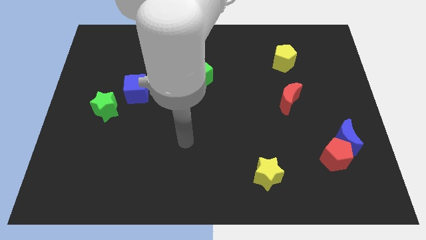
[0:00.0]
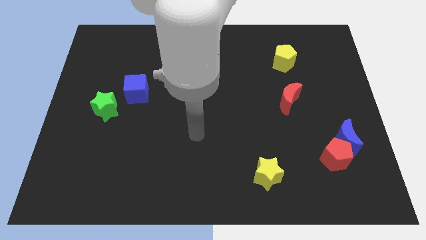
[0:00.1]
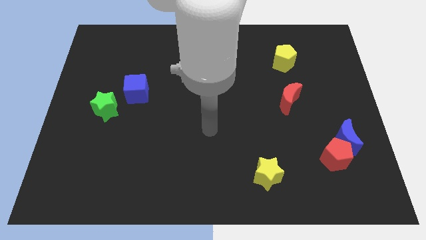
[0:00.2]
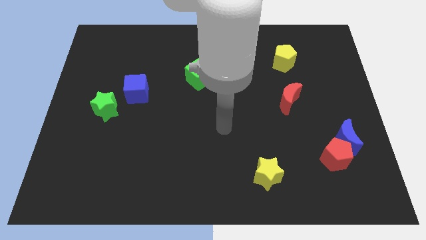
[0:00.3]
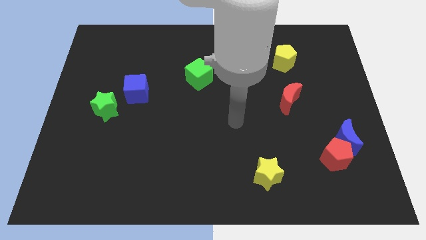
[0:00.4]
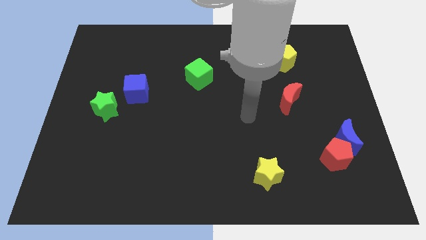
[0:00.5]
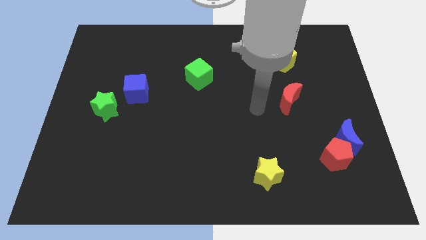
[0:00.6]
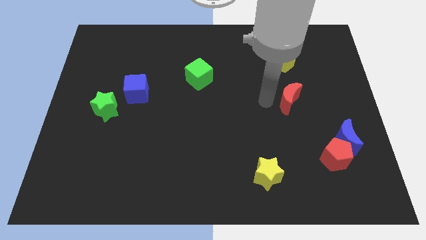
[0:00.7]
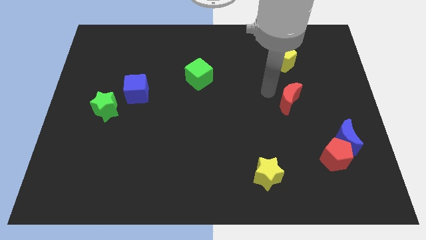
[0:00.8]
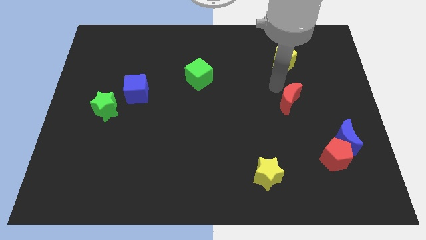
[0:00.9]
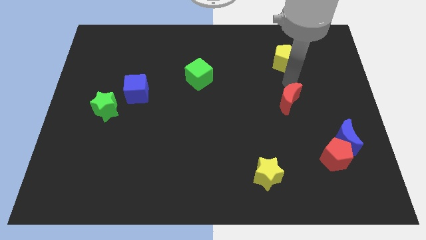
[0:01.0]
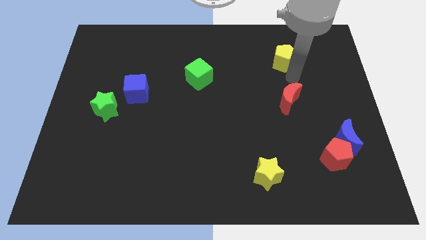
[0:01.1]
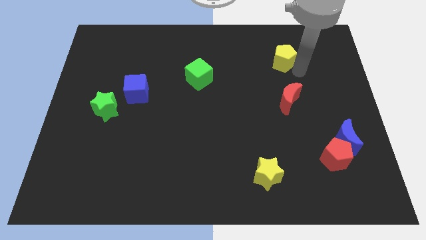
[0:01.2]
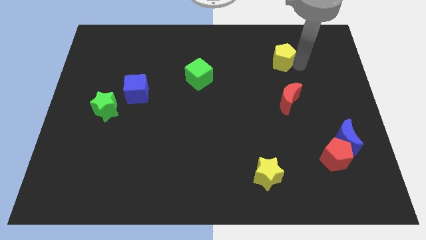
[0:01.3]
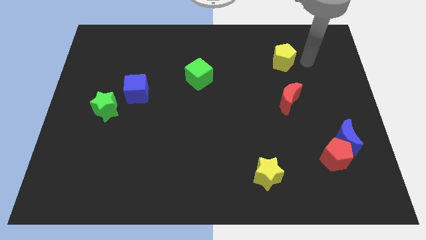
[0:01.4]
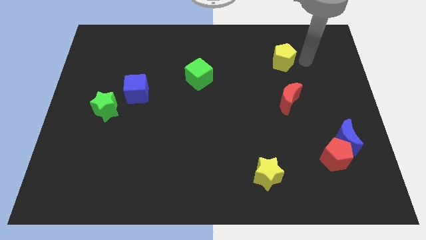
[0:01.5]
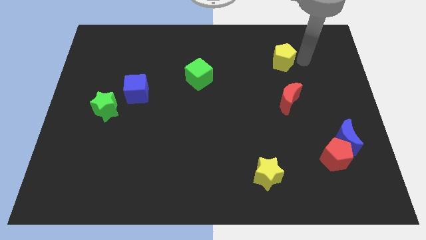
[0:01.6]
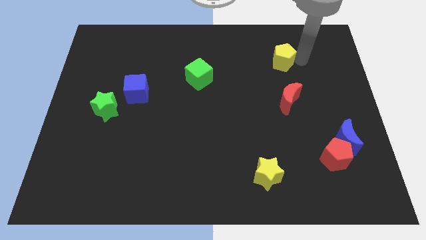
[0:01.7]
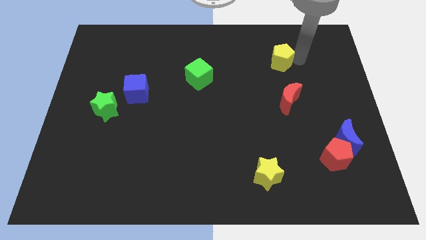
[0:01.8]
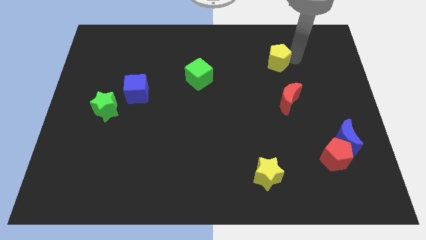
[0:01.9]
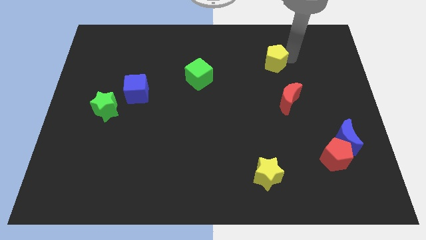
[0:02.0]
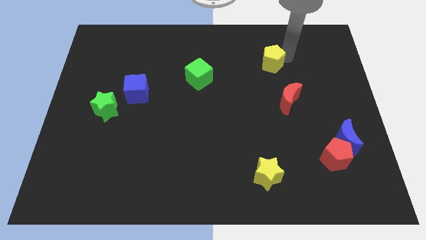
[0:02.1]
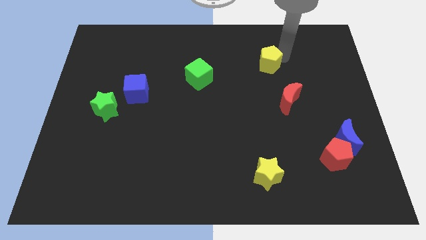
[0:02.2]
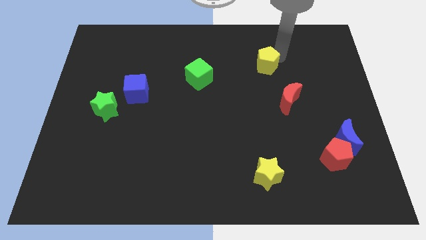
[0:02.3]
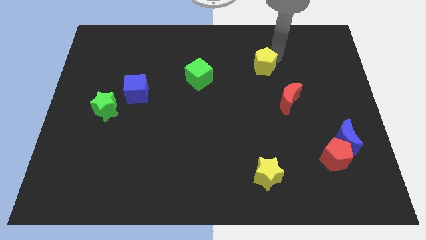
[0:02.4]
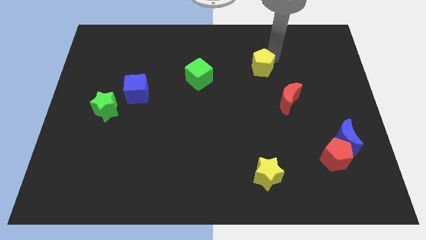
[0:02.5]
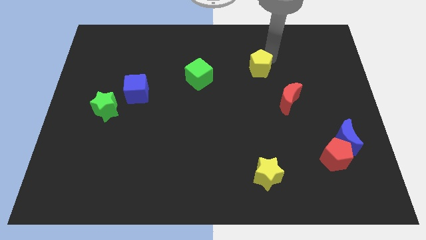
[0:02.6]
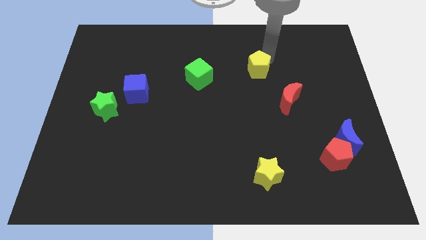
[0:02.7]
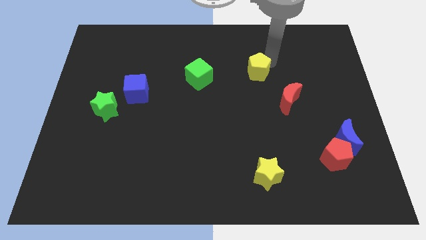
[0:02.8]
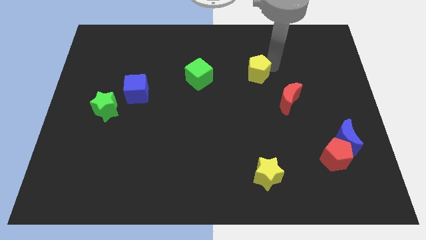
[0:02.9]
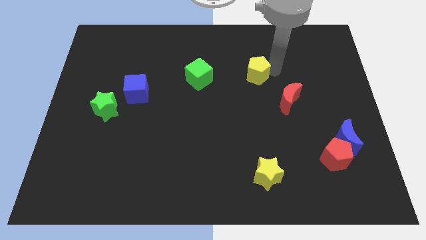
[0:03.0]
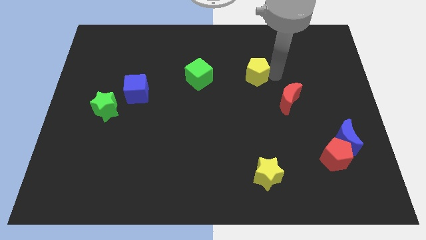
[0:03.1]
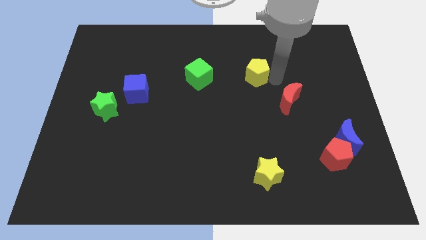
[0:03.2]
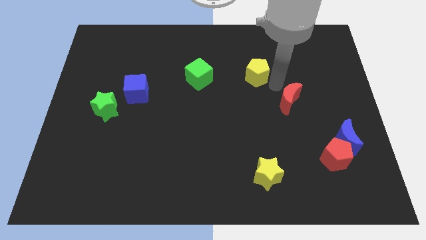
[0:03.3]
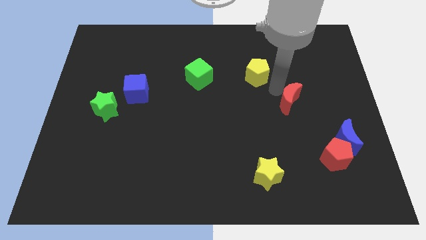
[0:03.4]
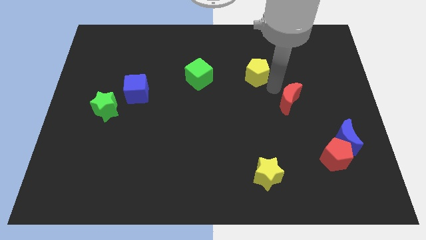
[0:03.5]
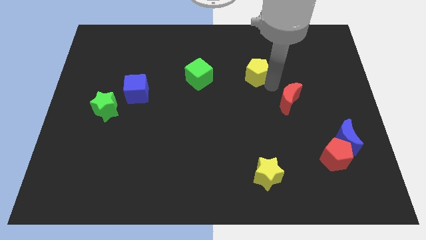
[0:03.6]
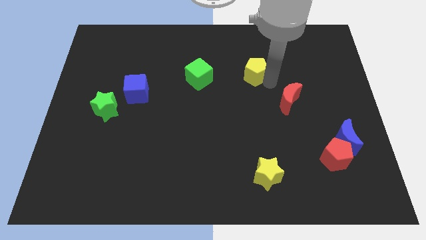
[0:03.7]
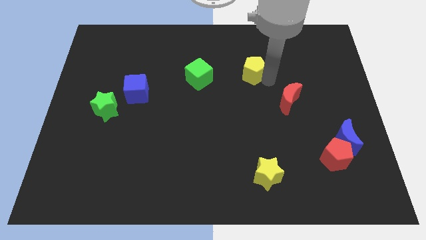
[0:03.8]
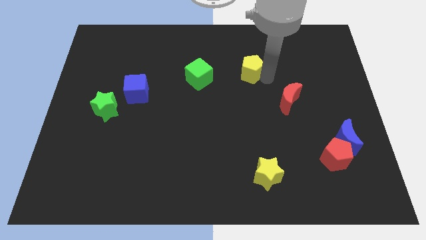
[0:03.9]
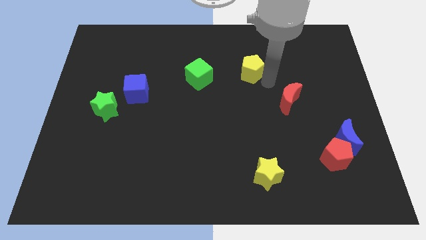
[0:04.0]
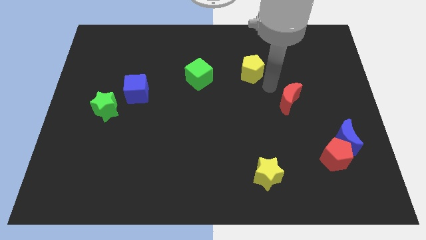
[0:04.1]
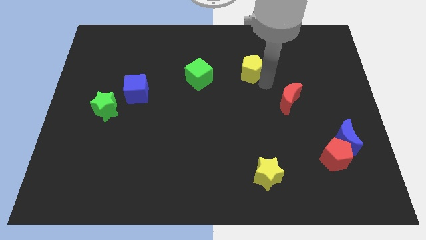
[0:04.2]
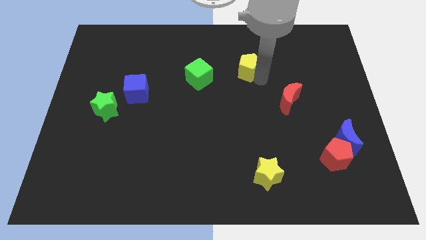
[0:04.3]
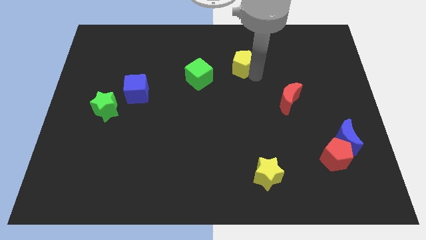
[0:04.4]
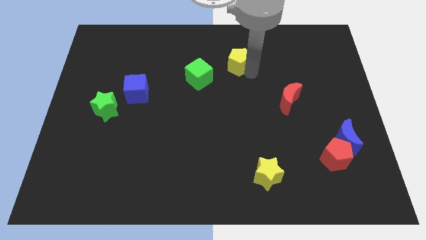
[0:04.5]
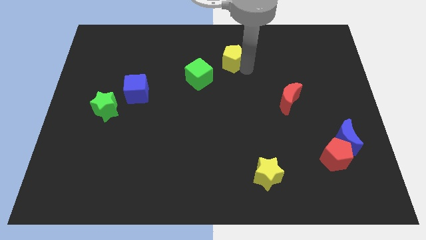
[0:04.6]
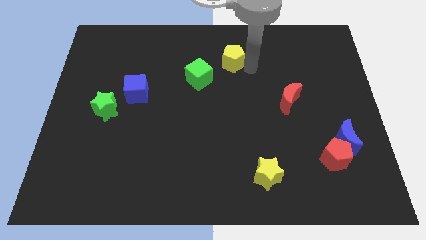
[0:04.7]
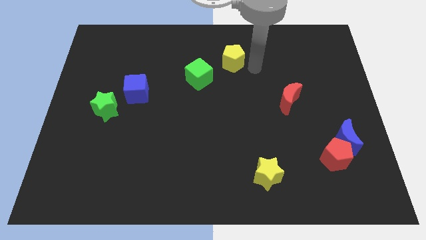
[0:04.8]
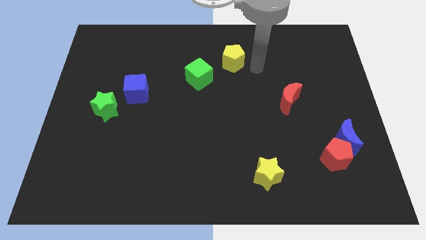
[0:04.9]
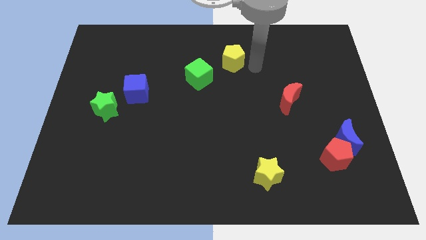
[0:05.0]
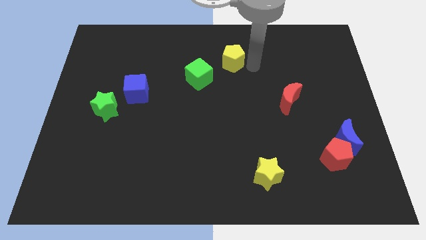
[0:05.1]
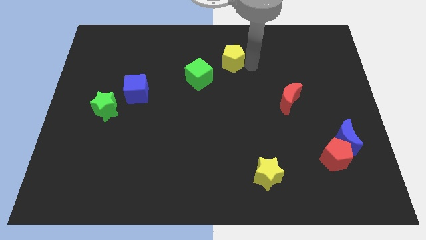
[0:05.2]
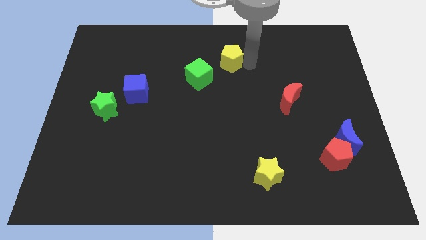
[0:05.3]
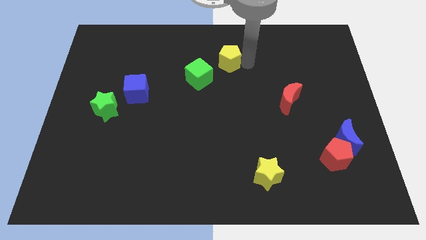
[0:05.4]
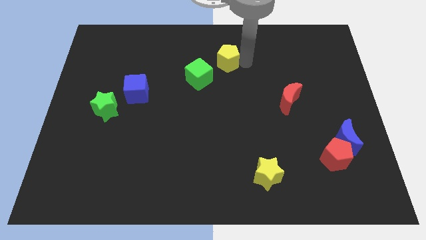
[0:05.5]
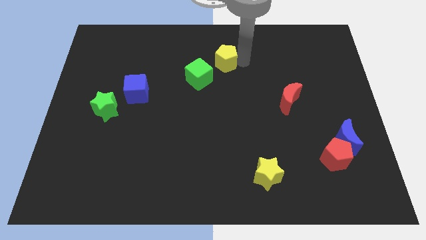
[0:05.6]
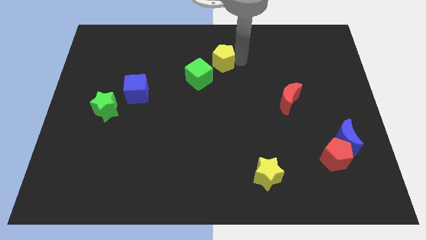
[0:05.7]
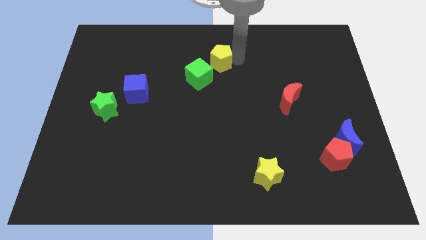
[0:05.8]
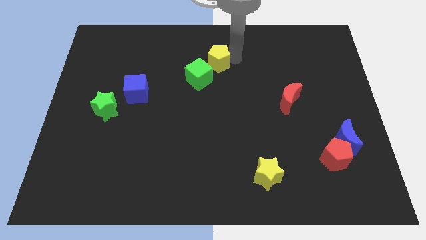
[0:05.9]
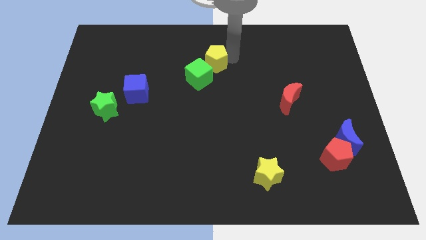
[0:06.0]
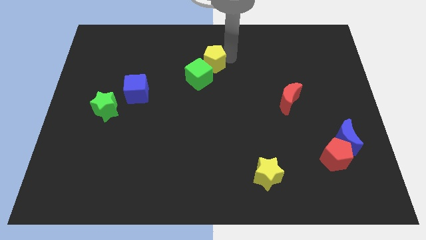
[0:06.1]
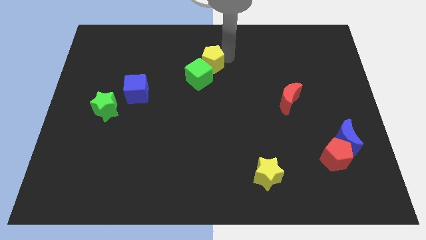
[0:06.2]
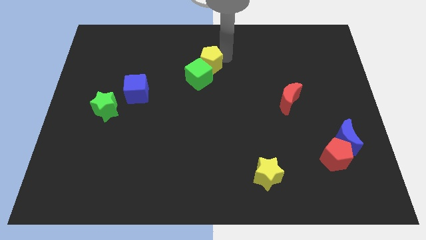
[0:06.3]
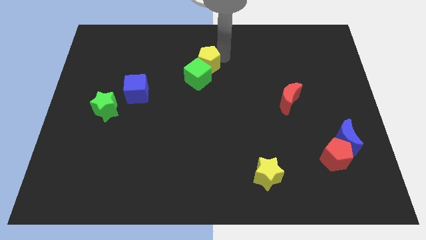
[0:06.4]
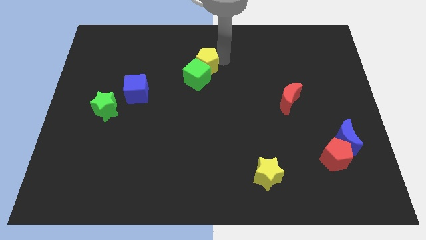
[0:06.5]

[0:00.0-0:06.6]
push the yellow pentagon left

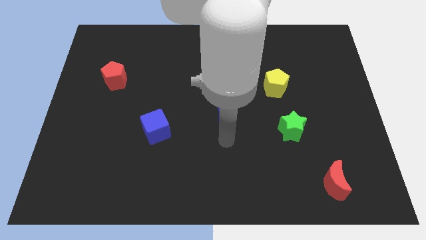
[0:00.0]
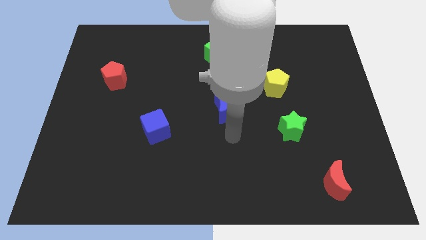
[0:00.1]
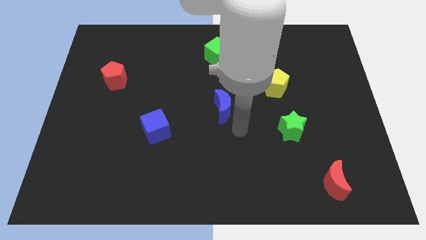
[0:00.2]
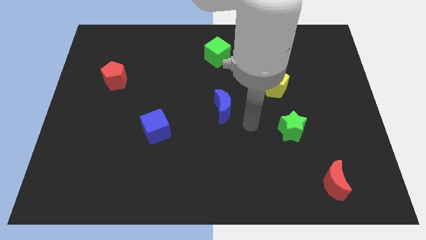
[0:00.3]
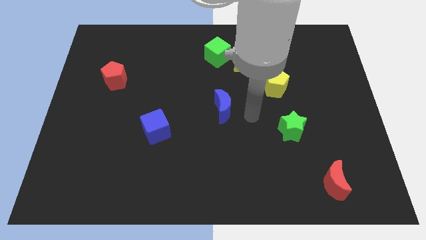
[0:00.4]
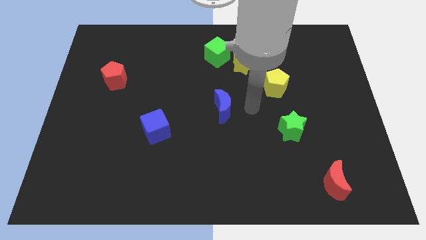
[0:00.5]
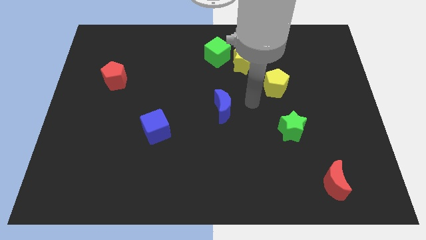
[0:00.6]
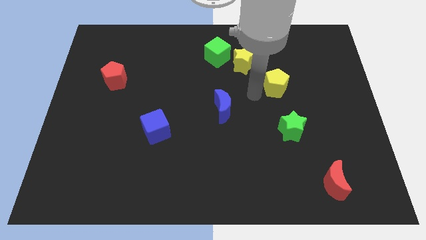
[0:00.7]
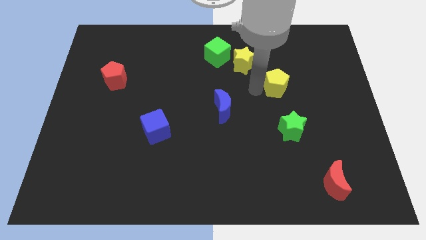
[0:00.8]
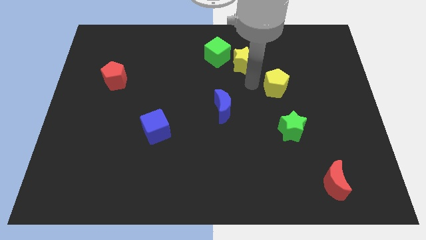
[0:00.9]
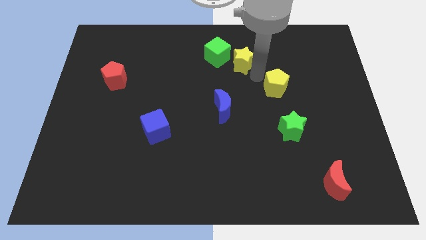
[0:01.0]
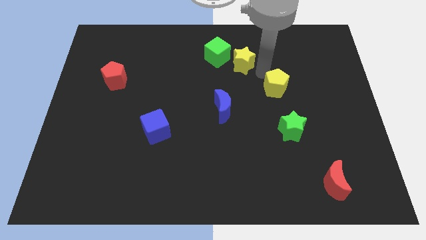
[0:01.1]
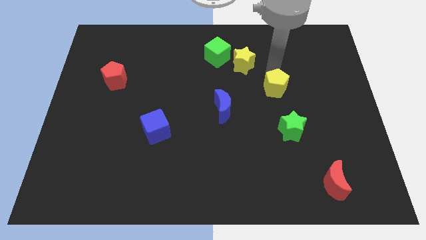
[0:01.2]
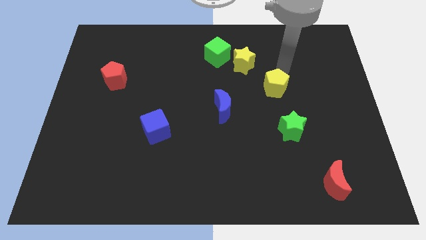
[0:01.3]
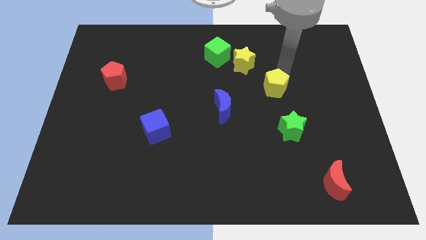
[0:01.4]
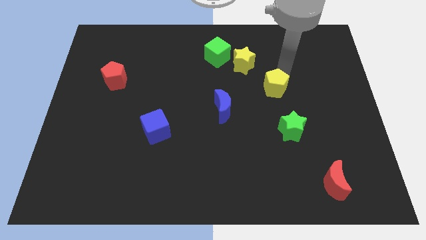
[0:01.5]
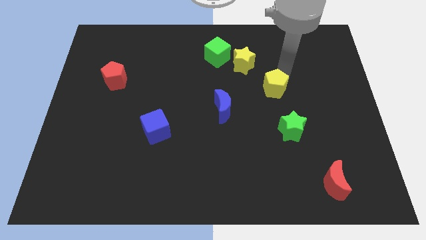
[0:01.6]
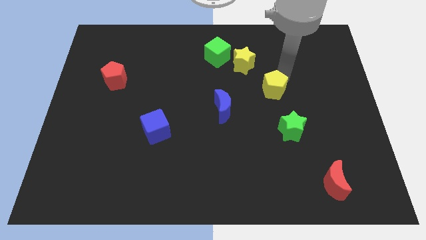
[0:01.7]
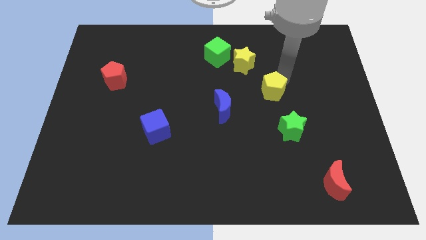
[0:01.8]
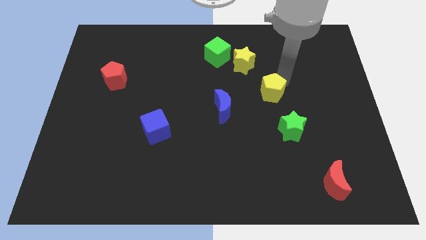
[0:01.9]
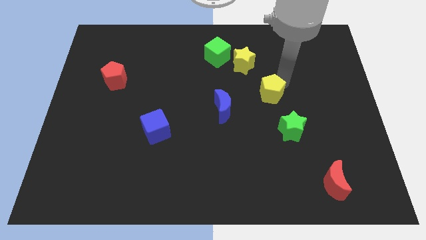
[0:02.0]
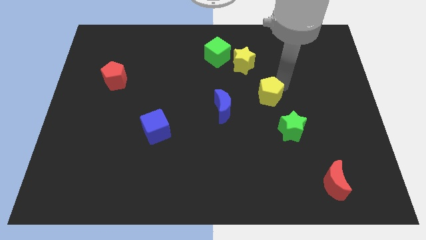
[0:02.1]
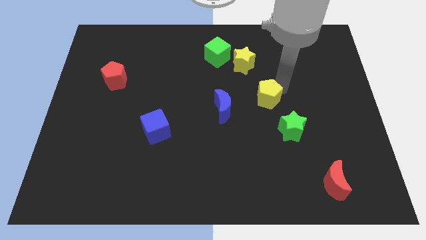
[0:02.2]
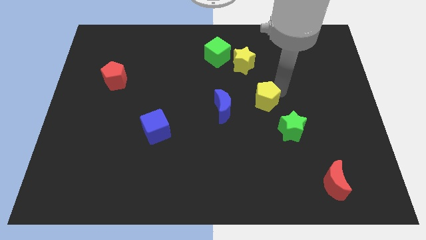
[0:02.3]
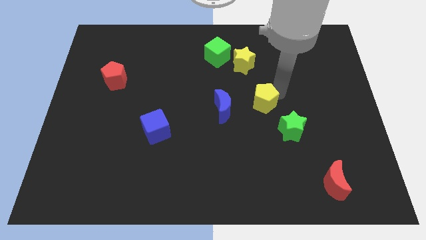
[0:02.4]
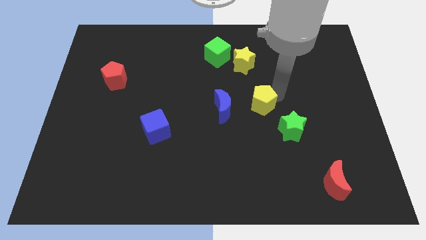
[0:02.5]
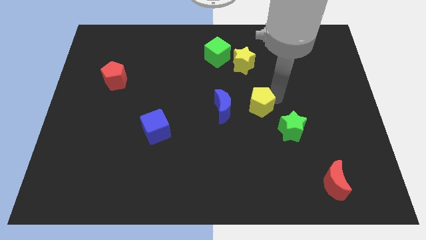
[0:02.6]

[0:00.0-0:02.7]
slightly push the yellow pentagon down and then left
